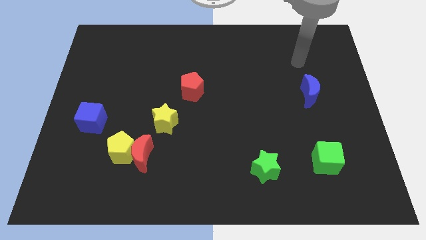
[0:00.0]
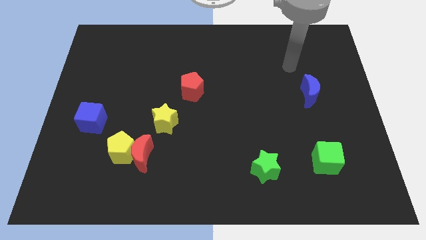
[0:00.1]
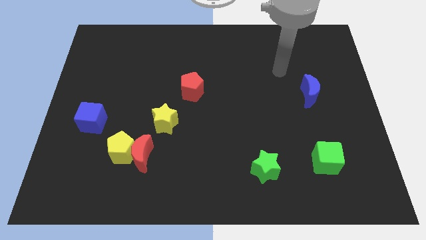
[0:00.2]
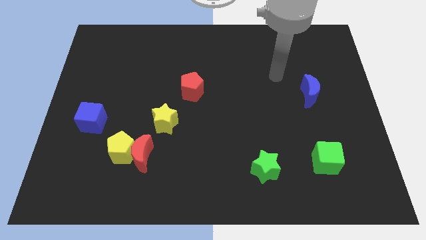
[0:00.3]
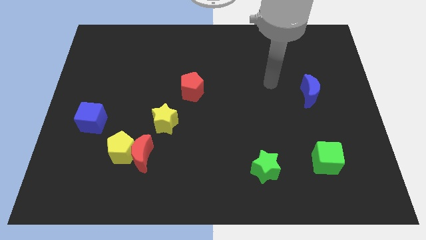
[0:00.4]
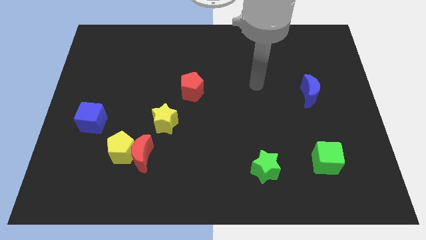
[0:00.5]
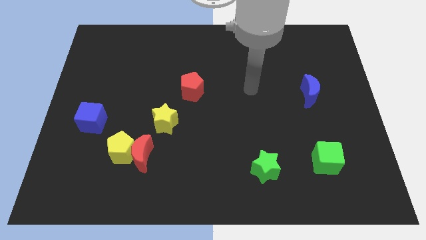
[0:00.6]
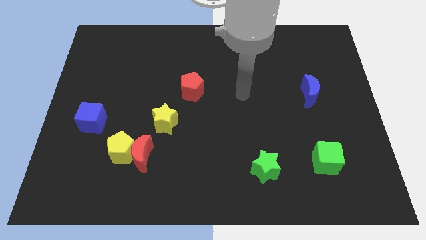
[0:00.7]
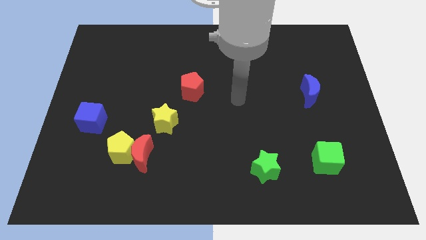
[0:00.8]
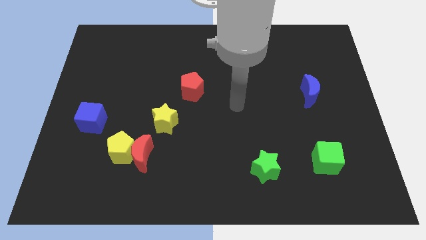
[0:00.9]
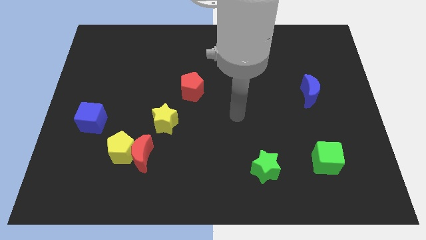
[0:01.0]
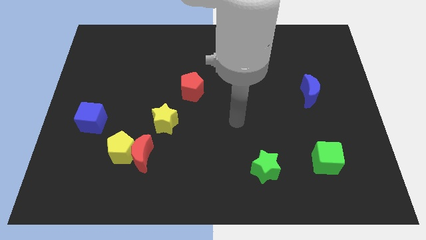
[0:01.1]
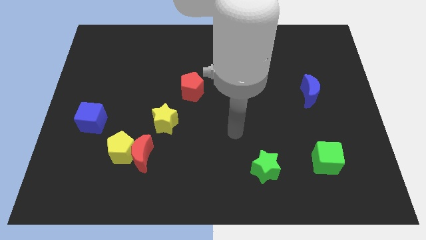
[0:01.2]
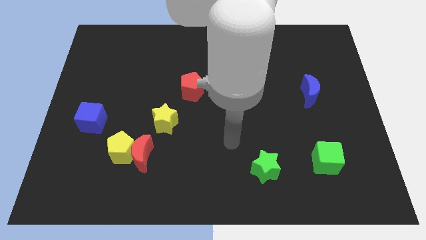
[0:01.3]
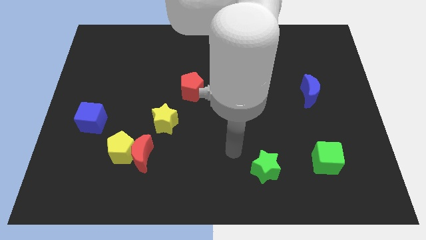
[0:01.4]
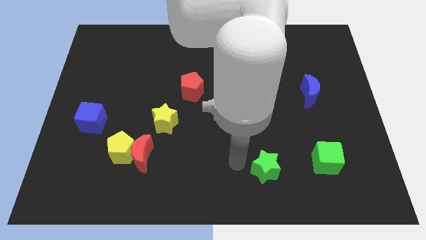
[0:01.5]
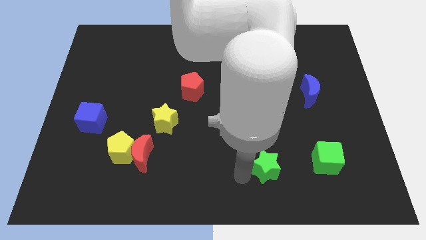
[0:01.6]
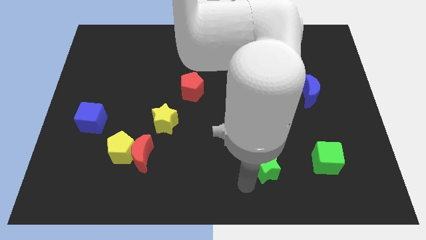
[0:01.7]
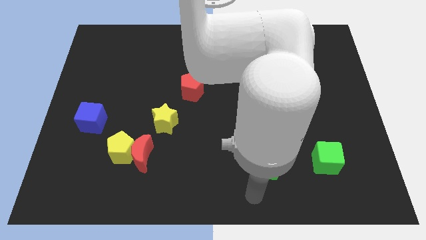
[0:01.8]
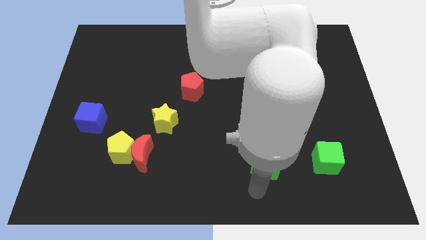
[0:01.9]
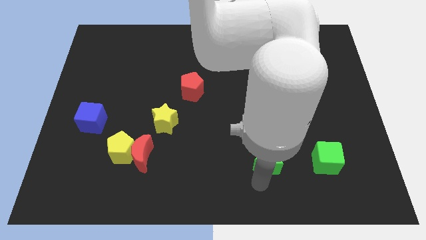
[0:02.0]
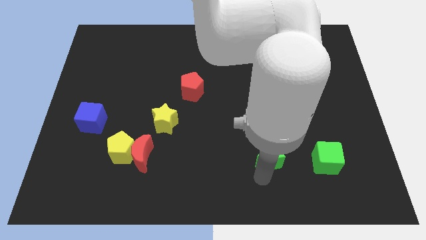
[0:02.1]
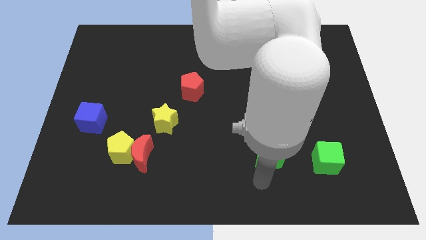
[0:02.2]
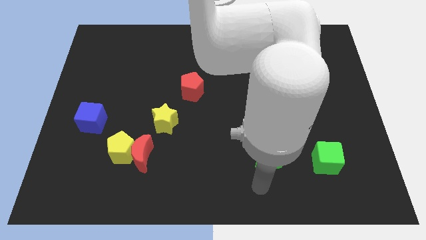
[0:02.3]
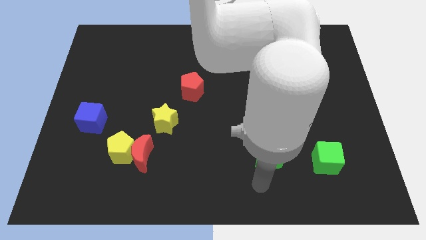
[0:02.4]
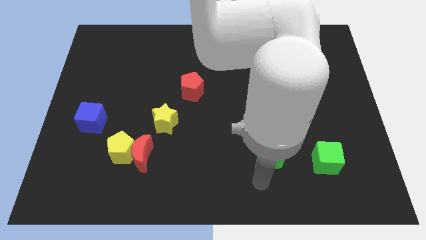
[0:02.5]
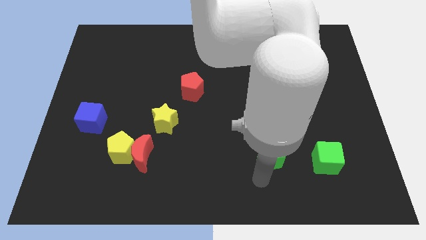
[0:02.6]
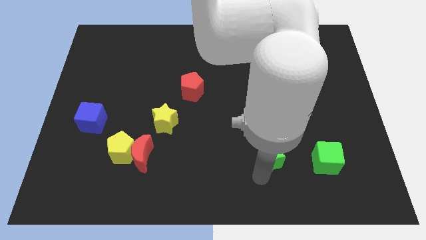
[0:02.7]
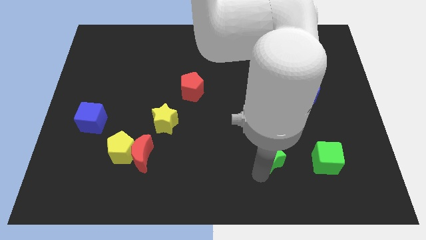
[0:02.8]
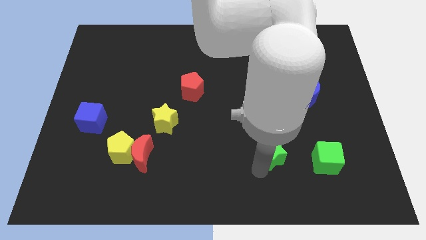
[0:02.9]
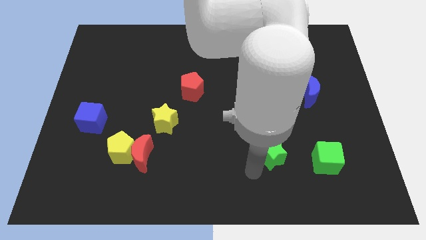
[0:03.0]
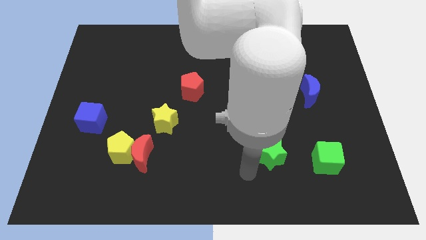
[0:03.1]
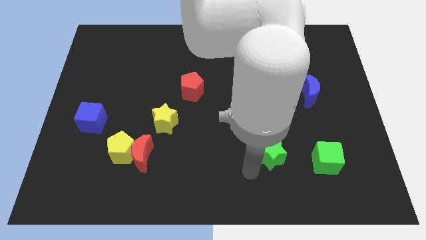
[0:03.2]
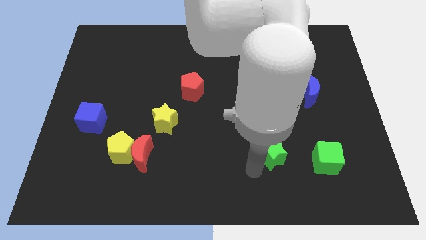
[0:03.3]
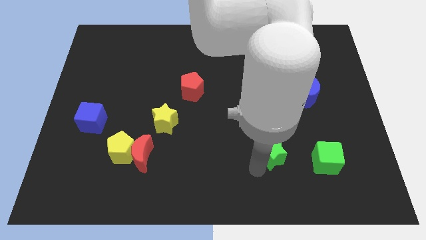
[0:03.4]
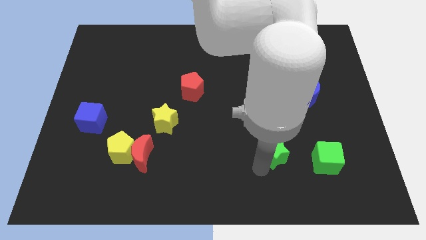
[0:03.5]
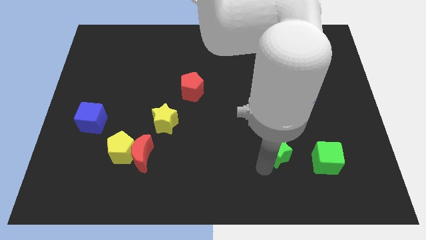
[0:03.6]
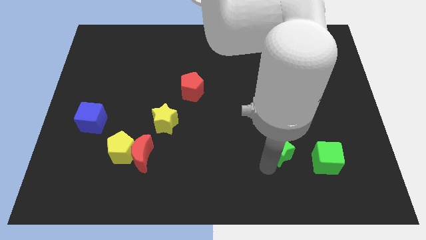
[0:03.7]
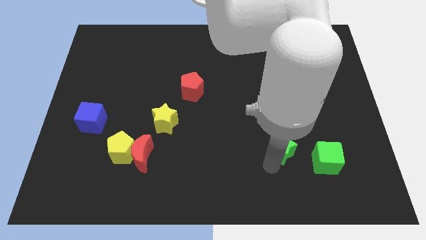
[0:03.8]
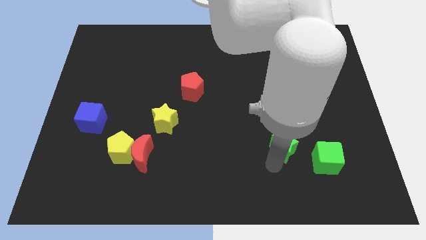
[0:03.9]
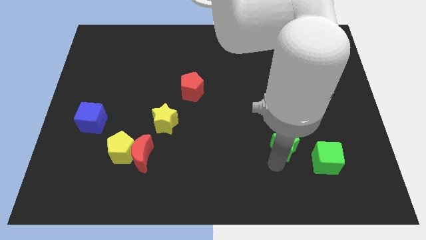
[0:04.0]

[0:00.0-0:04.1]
slide the green star upwards and then right a little

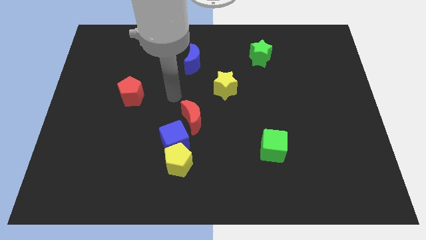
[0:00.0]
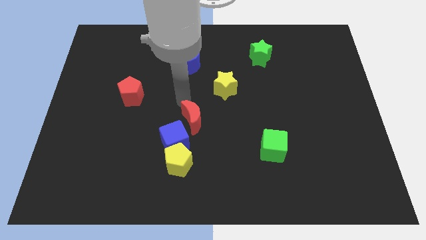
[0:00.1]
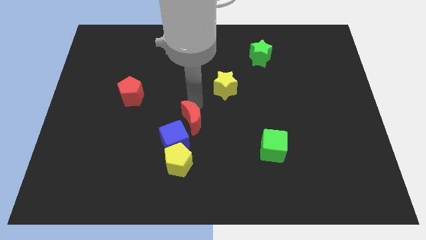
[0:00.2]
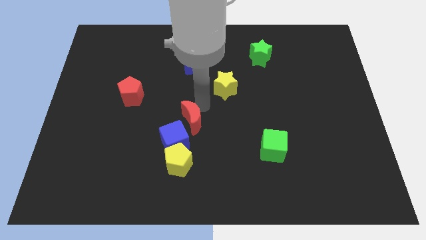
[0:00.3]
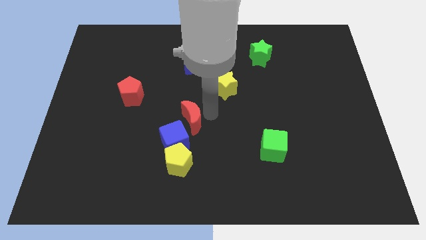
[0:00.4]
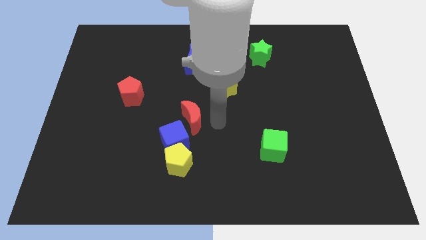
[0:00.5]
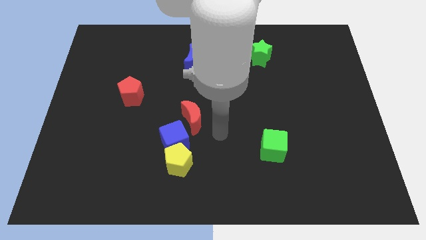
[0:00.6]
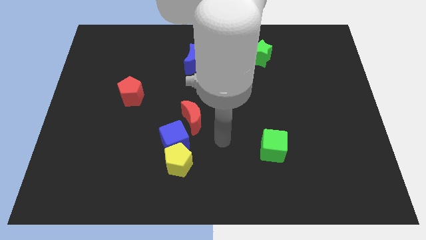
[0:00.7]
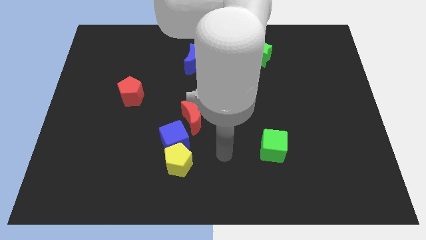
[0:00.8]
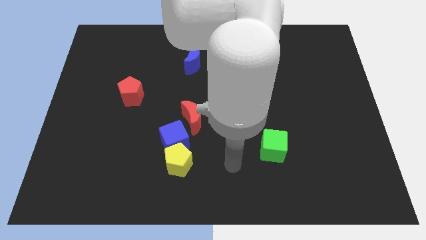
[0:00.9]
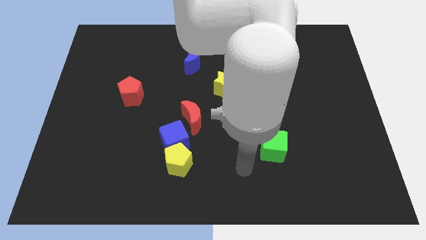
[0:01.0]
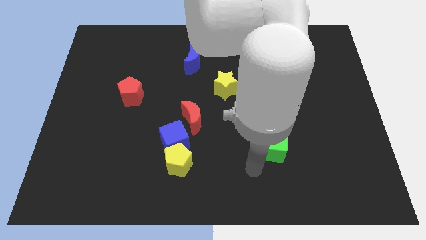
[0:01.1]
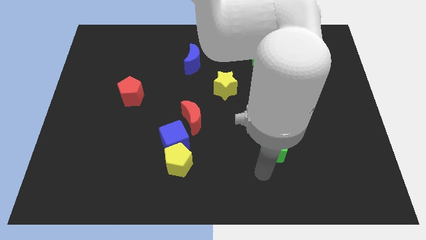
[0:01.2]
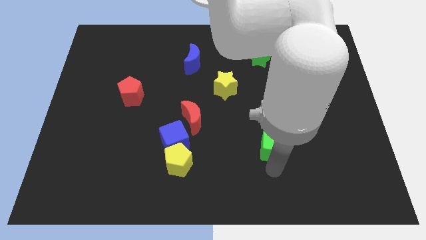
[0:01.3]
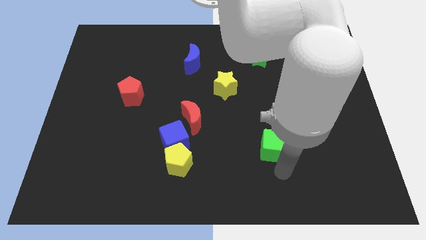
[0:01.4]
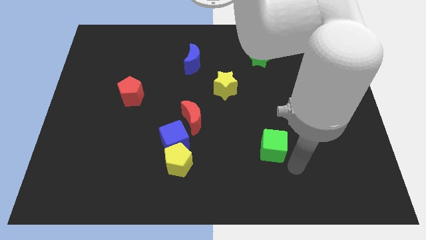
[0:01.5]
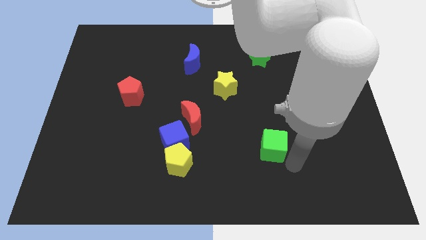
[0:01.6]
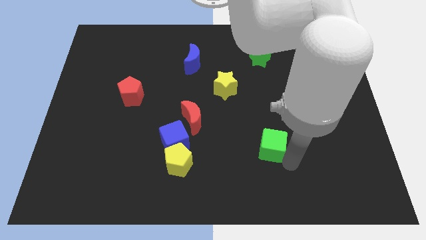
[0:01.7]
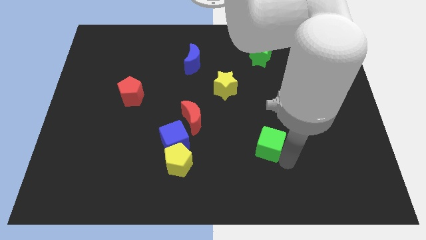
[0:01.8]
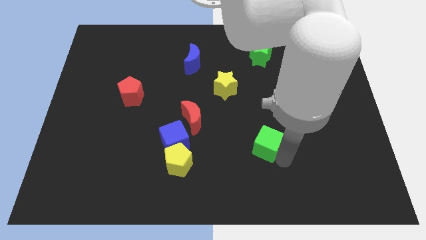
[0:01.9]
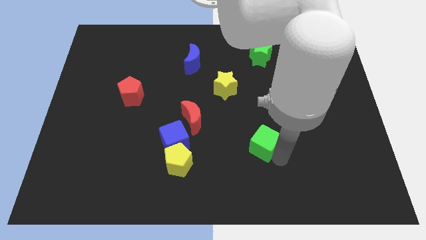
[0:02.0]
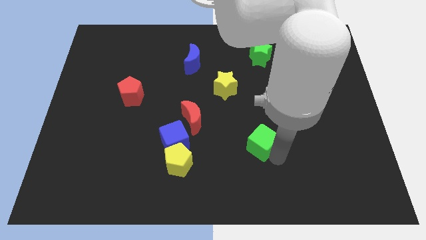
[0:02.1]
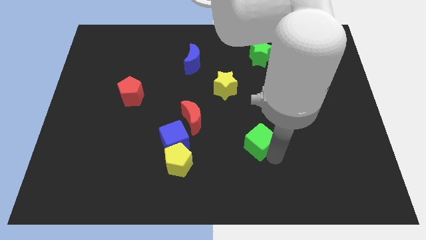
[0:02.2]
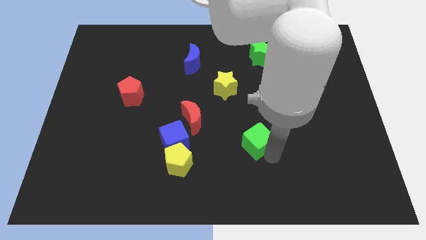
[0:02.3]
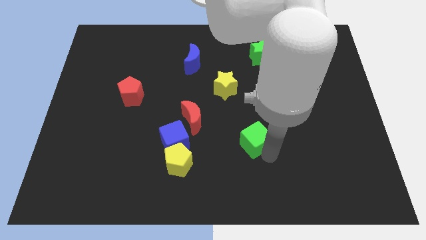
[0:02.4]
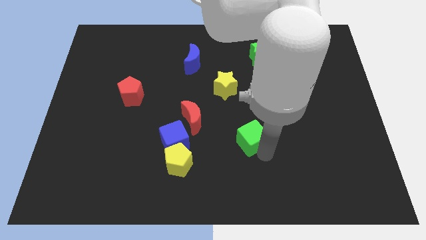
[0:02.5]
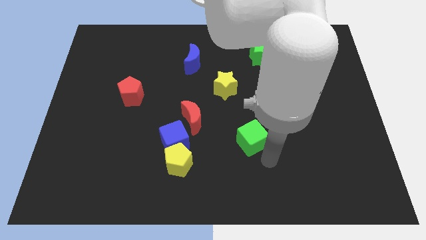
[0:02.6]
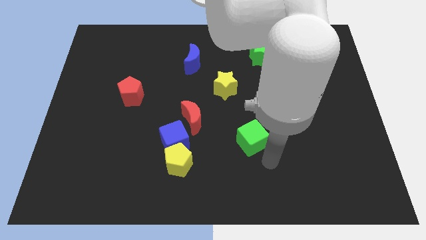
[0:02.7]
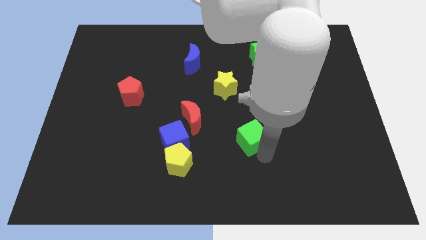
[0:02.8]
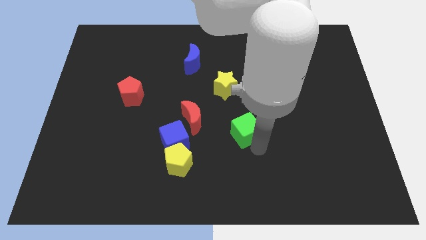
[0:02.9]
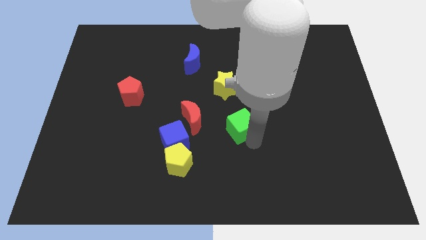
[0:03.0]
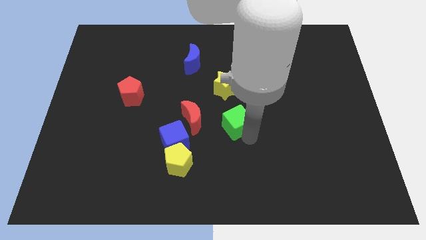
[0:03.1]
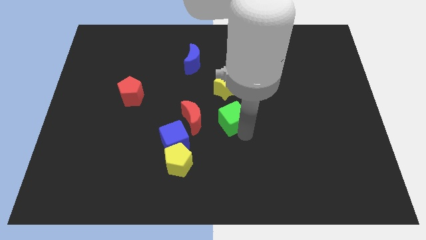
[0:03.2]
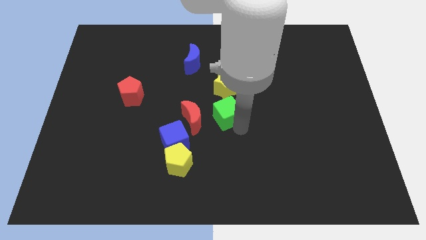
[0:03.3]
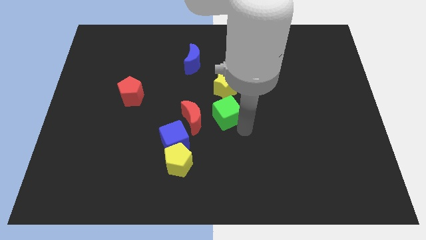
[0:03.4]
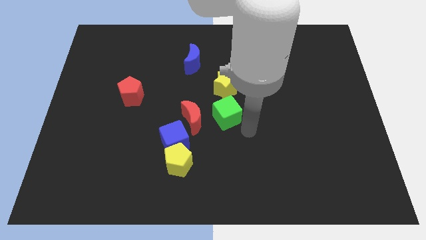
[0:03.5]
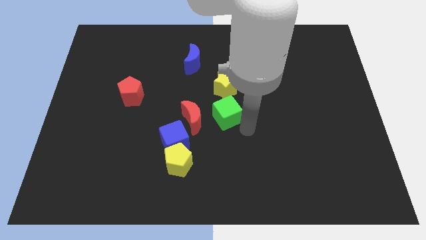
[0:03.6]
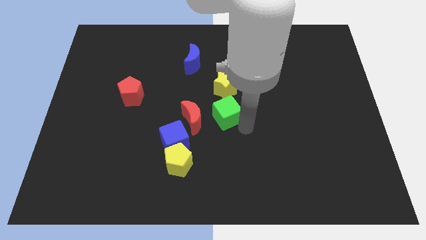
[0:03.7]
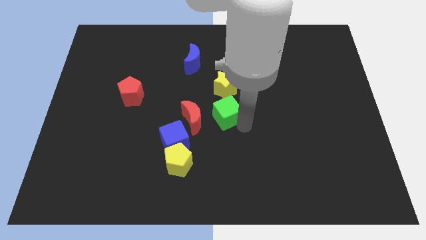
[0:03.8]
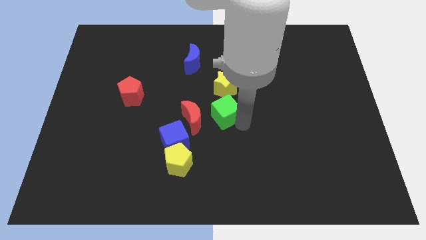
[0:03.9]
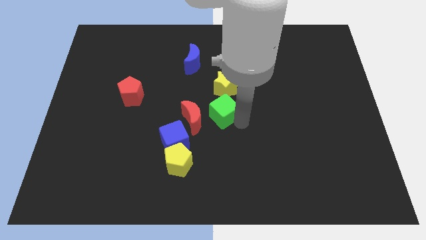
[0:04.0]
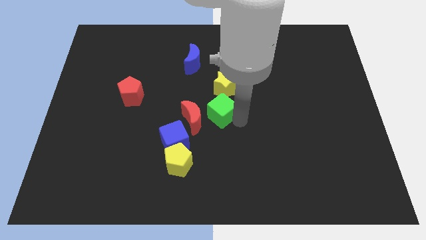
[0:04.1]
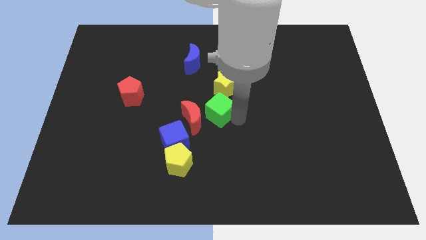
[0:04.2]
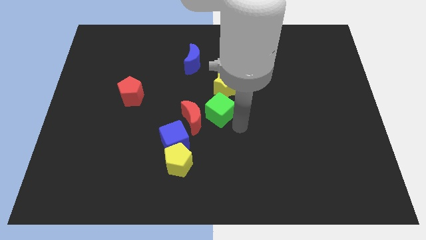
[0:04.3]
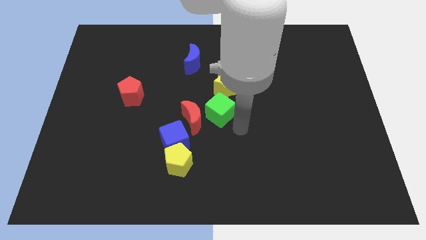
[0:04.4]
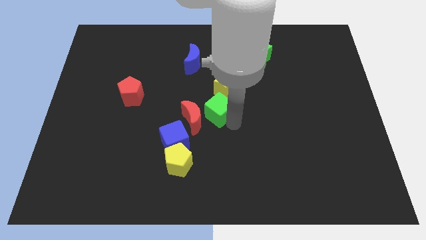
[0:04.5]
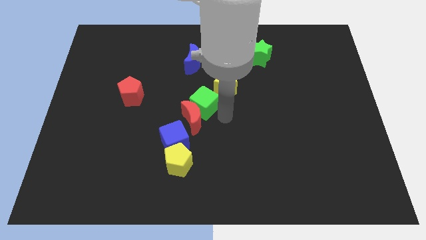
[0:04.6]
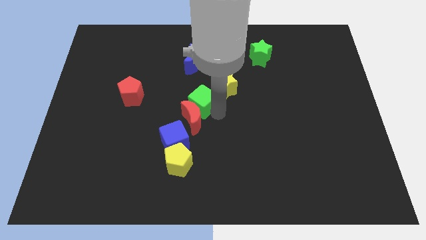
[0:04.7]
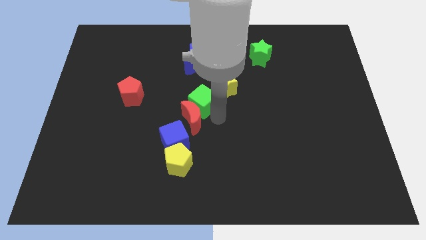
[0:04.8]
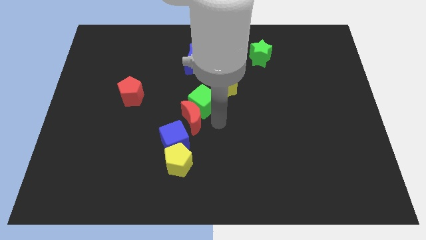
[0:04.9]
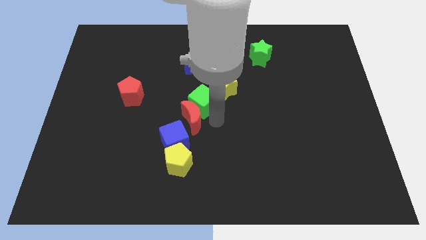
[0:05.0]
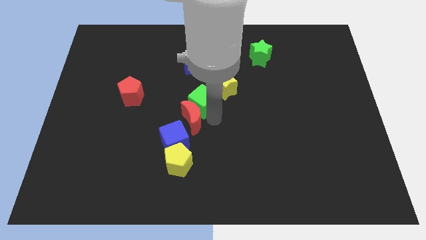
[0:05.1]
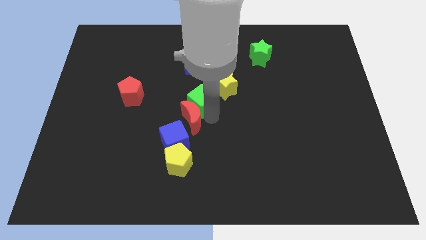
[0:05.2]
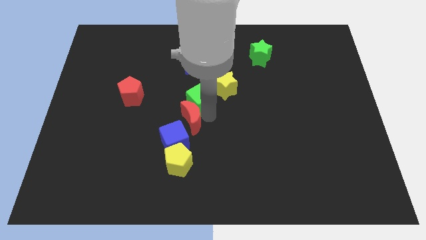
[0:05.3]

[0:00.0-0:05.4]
slide the green cube up and then to the left
